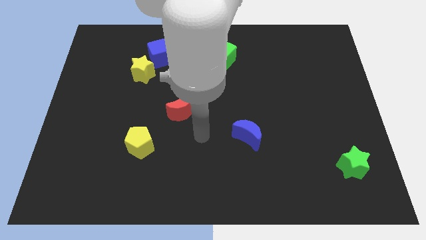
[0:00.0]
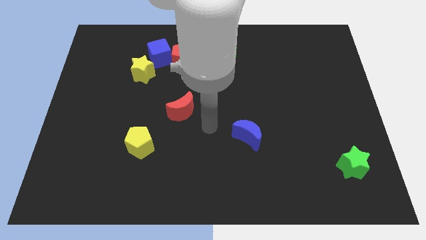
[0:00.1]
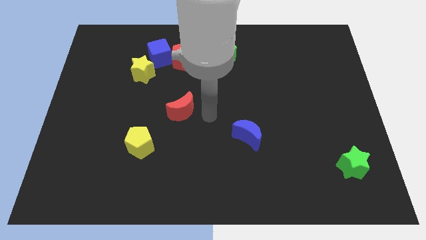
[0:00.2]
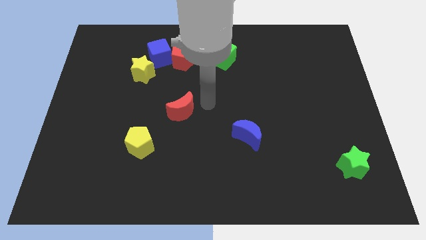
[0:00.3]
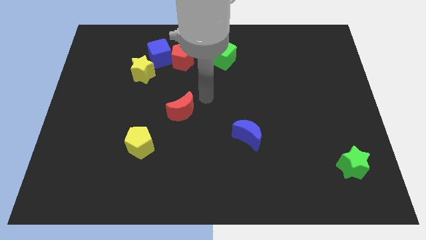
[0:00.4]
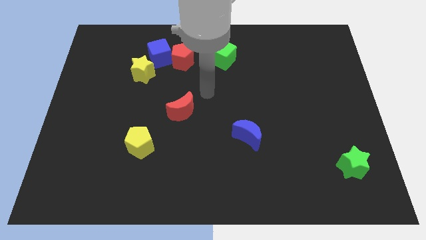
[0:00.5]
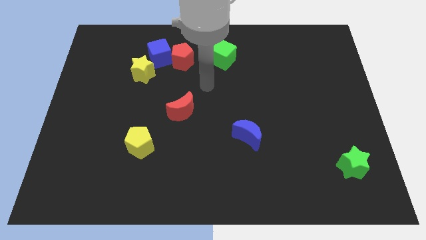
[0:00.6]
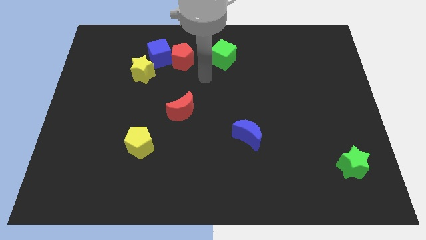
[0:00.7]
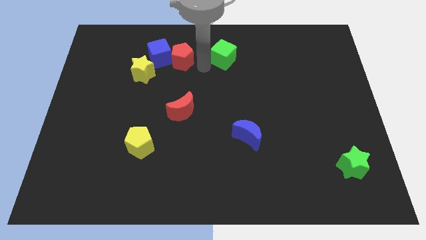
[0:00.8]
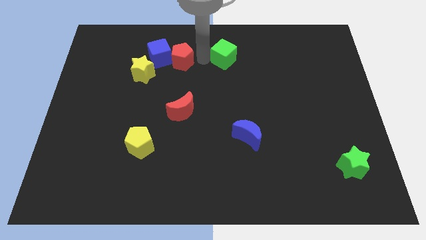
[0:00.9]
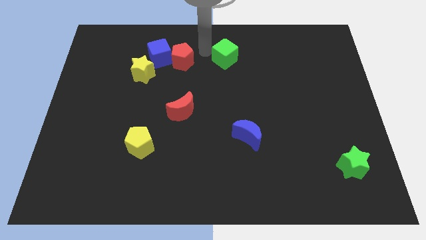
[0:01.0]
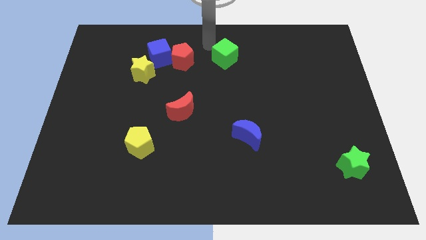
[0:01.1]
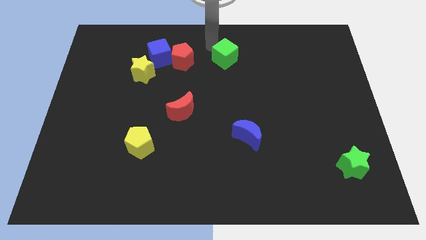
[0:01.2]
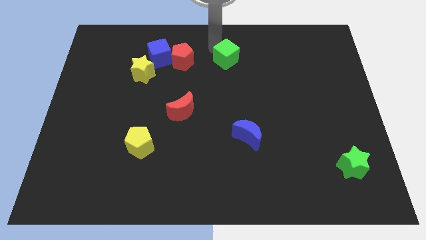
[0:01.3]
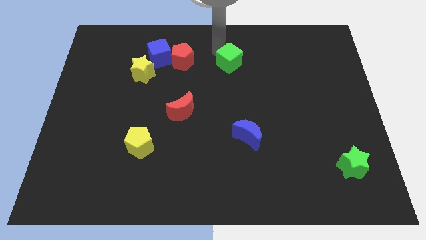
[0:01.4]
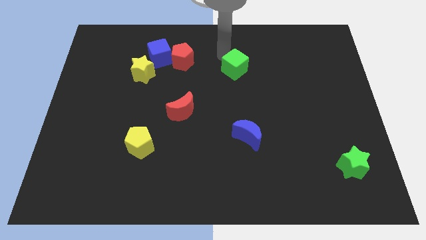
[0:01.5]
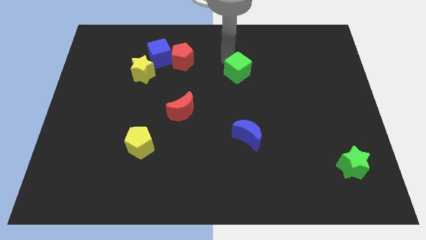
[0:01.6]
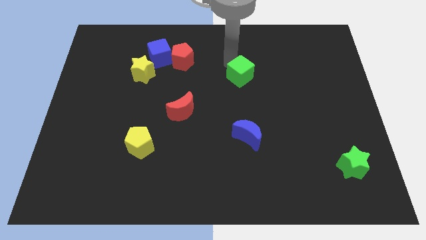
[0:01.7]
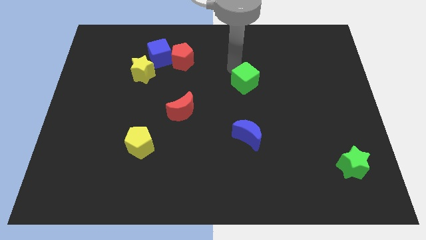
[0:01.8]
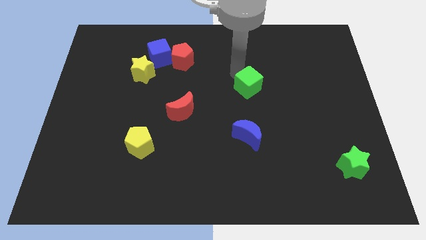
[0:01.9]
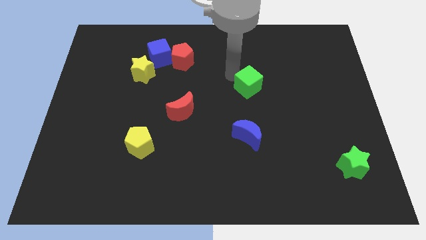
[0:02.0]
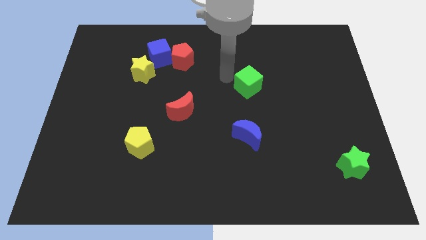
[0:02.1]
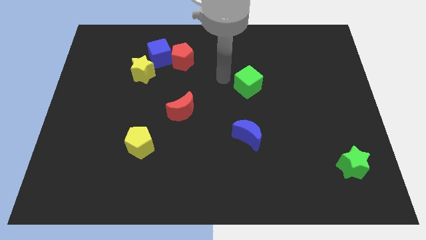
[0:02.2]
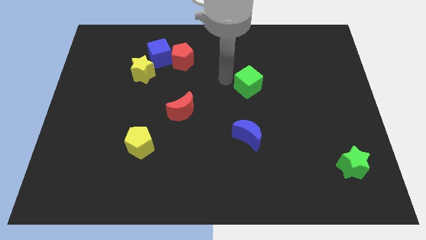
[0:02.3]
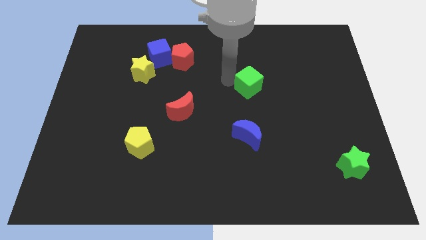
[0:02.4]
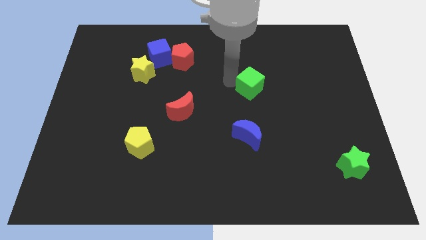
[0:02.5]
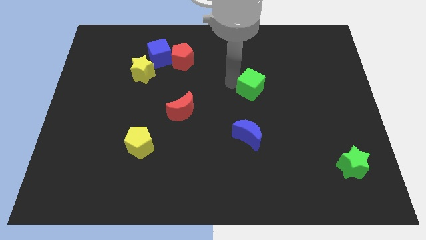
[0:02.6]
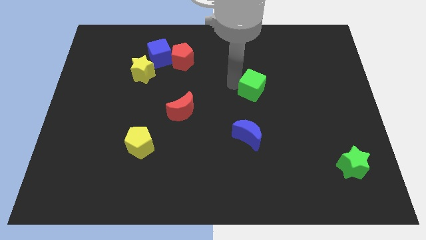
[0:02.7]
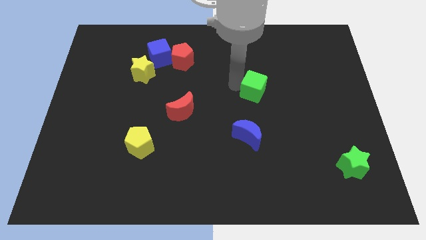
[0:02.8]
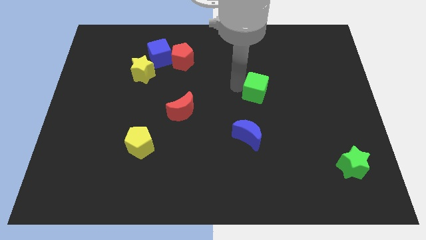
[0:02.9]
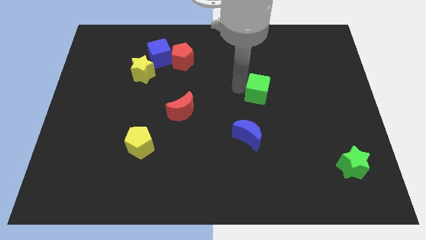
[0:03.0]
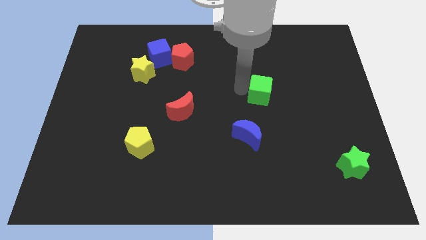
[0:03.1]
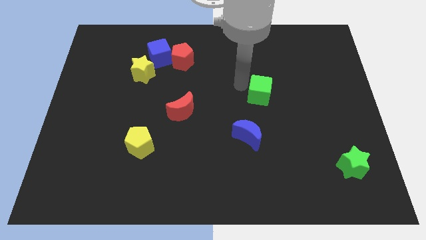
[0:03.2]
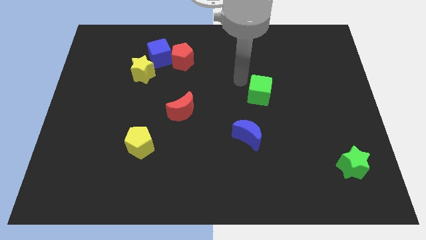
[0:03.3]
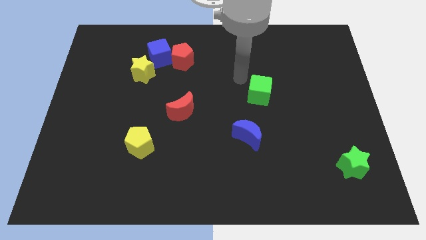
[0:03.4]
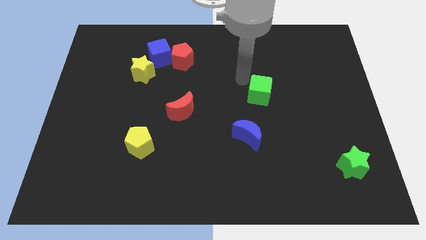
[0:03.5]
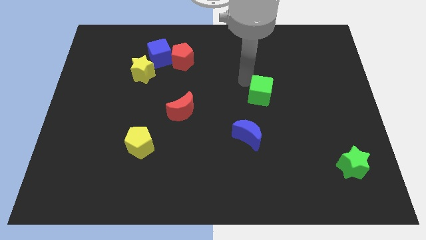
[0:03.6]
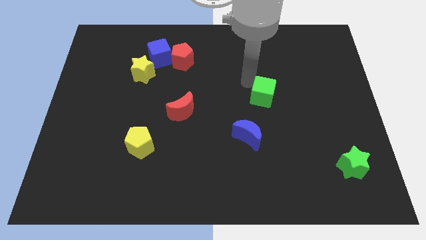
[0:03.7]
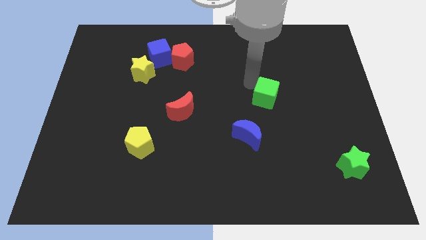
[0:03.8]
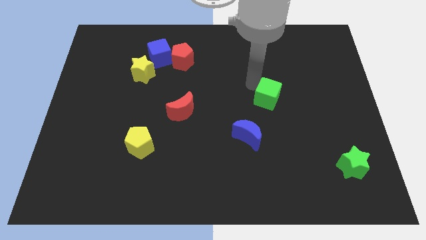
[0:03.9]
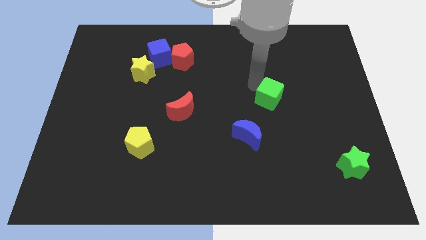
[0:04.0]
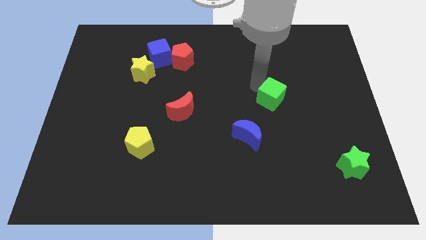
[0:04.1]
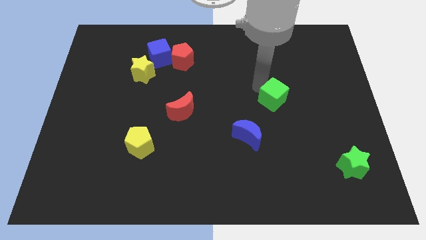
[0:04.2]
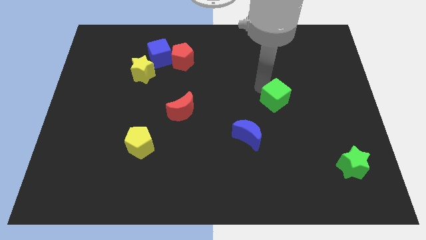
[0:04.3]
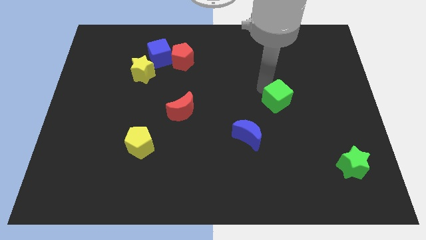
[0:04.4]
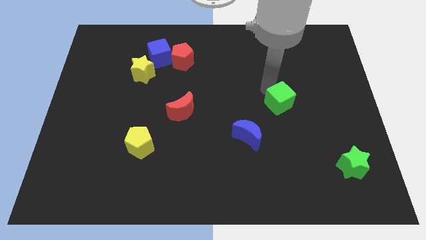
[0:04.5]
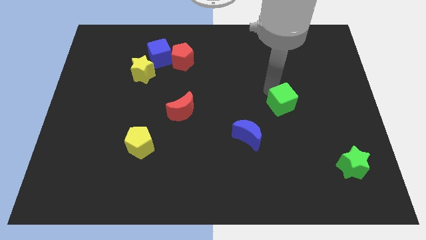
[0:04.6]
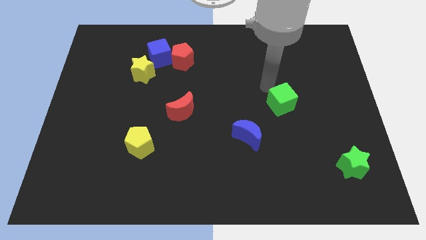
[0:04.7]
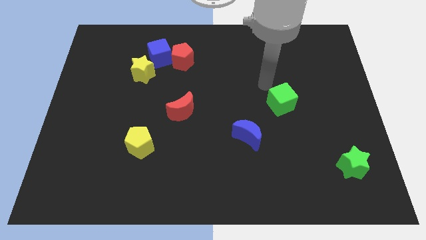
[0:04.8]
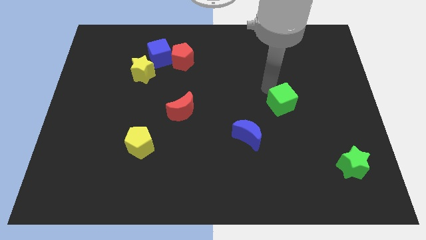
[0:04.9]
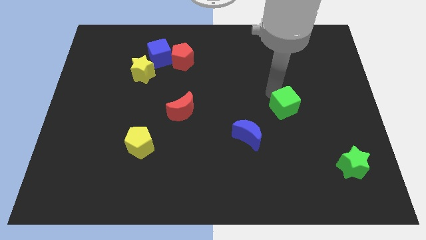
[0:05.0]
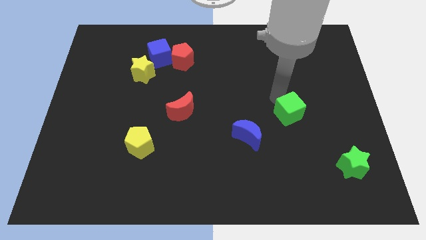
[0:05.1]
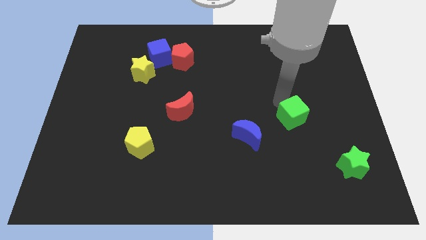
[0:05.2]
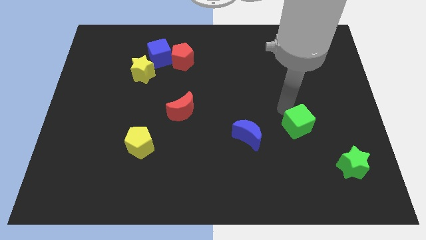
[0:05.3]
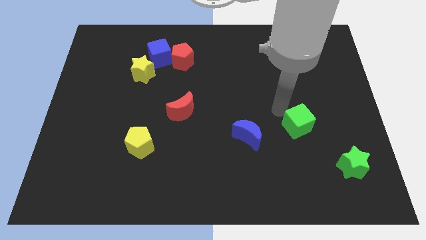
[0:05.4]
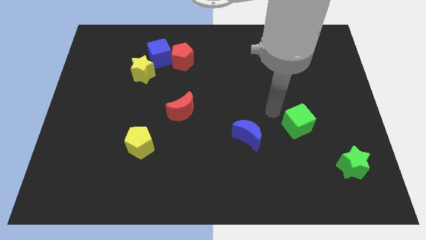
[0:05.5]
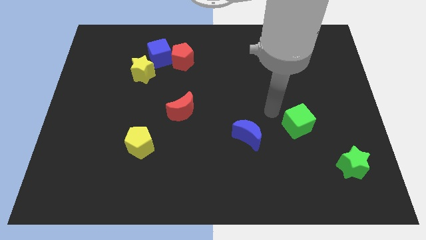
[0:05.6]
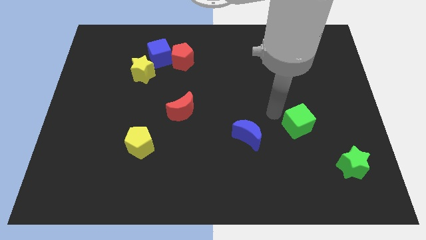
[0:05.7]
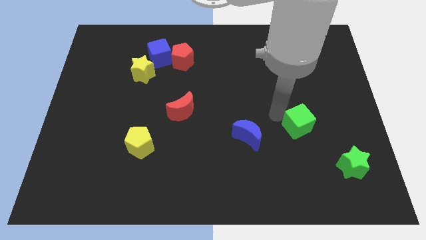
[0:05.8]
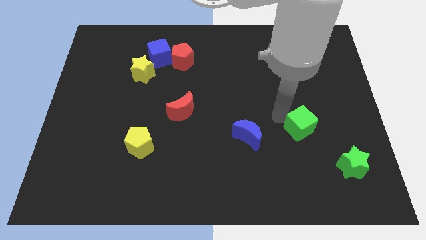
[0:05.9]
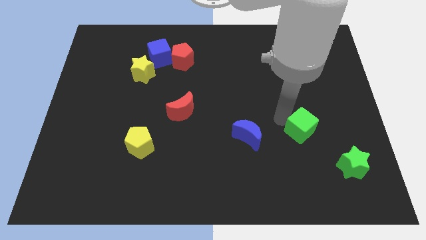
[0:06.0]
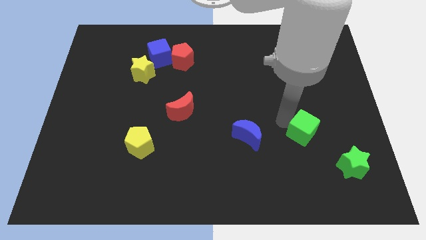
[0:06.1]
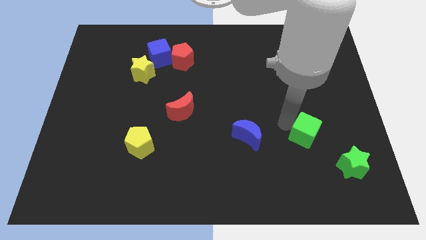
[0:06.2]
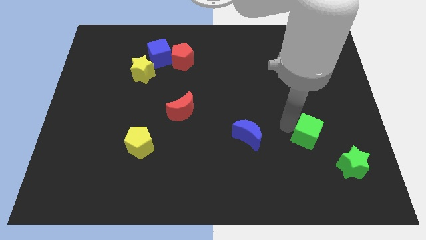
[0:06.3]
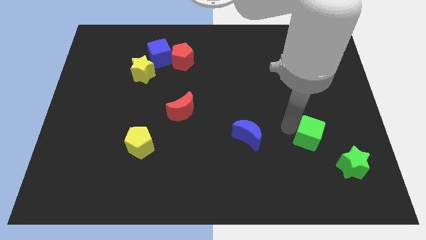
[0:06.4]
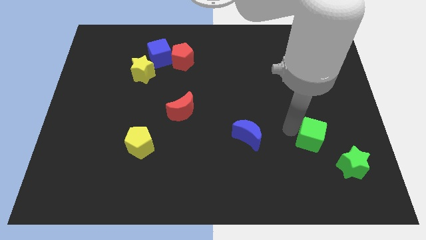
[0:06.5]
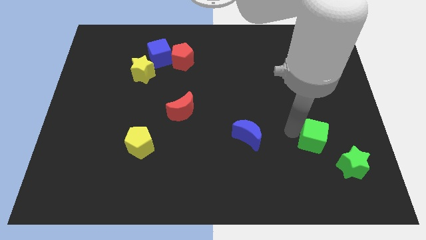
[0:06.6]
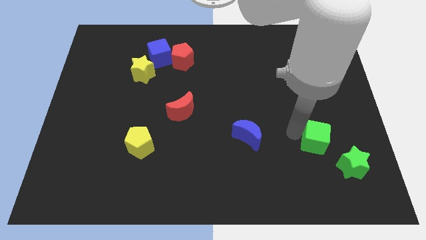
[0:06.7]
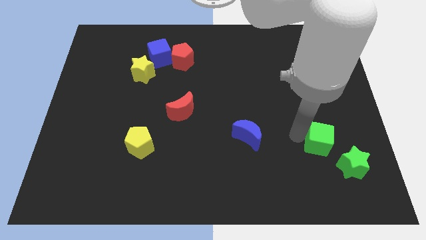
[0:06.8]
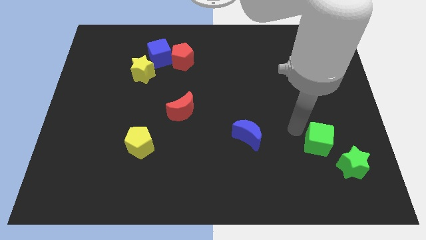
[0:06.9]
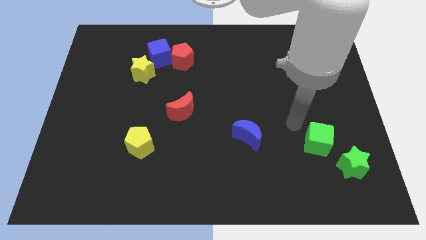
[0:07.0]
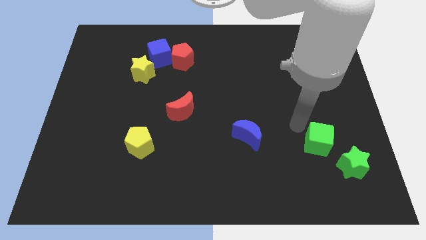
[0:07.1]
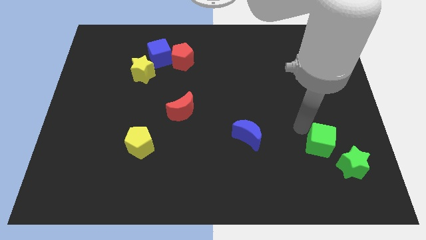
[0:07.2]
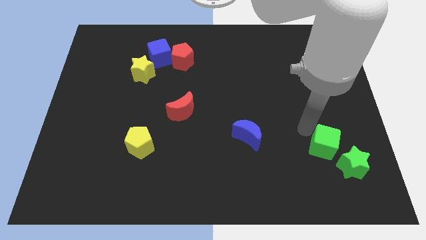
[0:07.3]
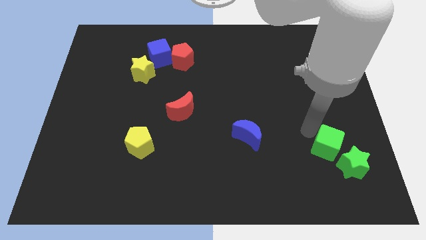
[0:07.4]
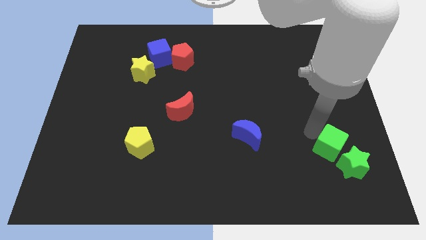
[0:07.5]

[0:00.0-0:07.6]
move the green cube towards the green star
